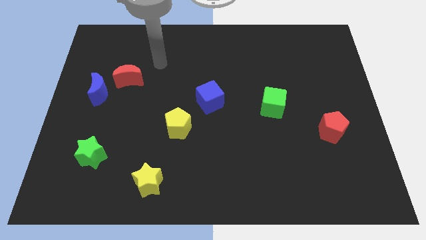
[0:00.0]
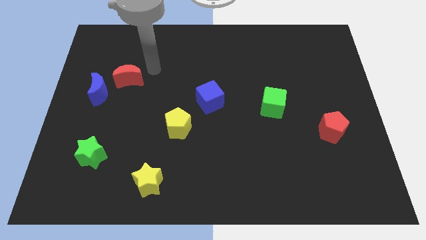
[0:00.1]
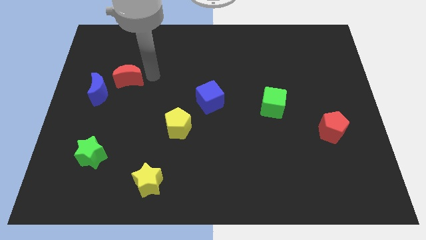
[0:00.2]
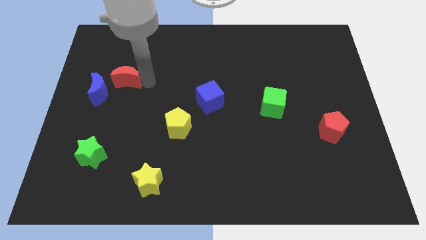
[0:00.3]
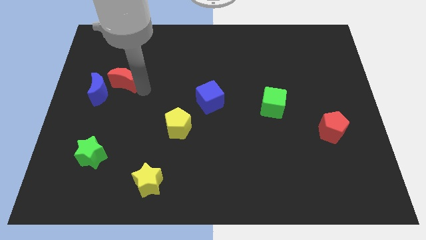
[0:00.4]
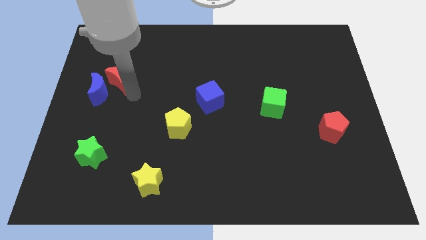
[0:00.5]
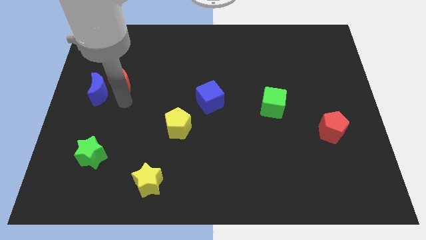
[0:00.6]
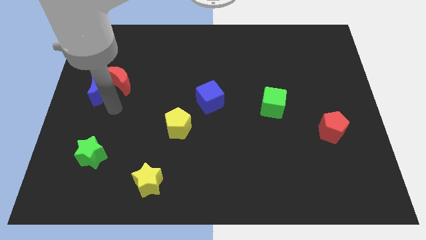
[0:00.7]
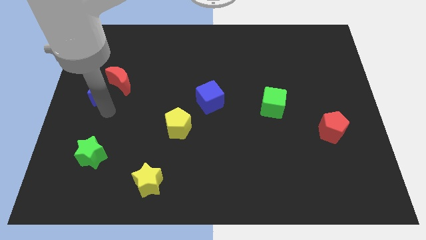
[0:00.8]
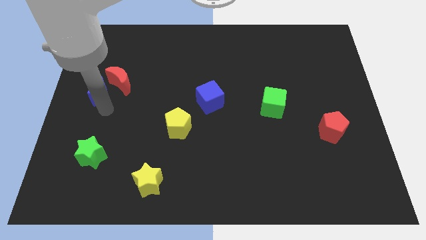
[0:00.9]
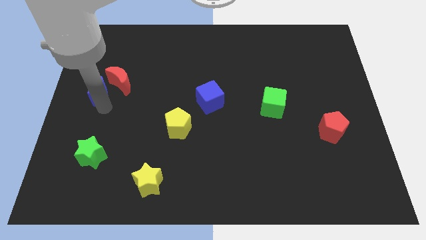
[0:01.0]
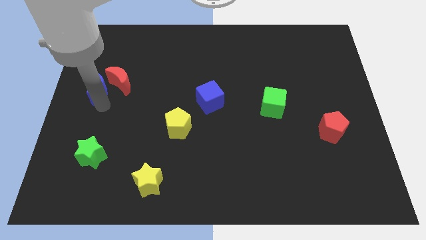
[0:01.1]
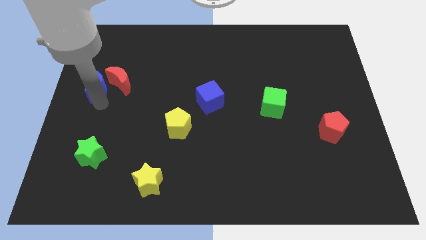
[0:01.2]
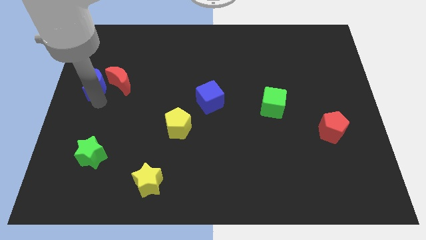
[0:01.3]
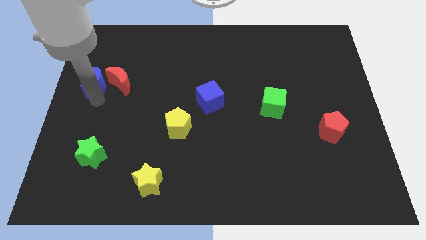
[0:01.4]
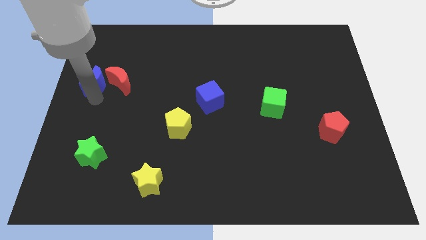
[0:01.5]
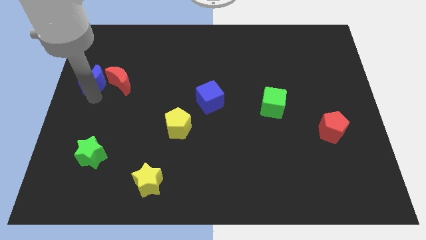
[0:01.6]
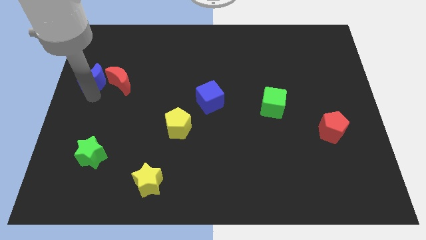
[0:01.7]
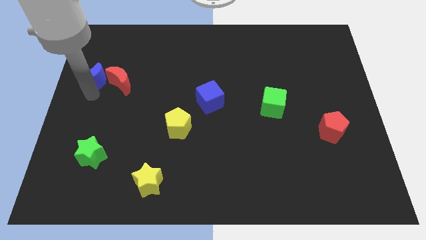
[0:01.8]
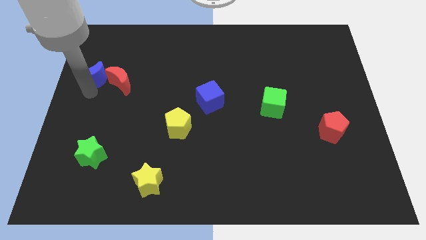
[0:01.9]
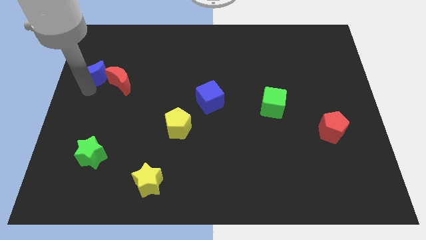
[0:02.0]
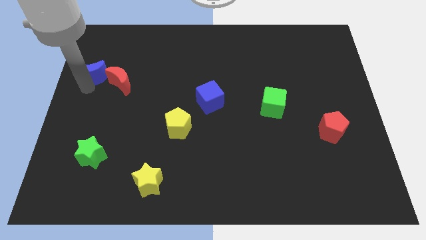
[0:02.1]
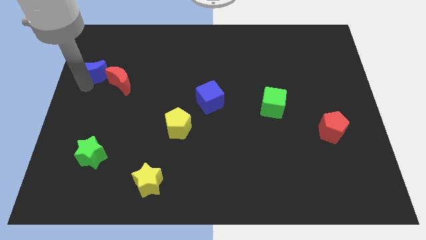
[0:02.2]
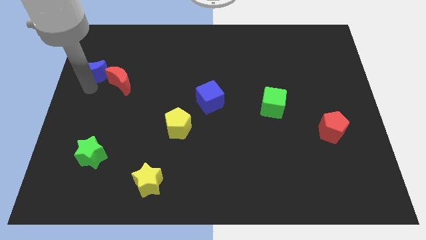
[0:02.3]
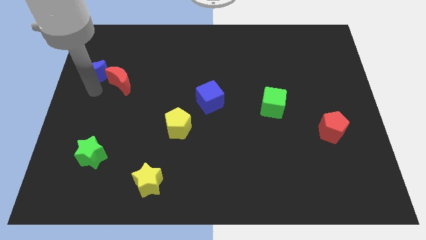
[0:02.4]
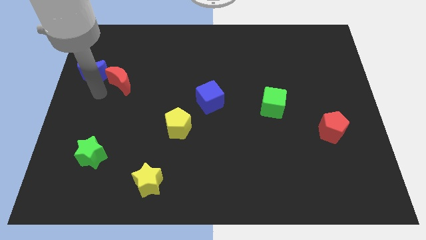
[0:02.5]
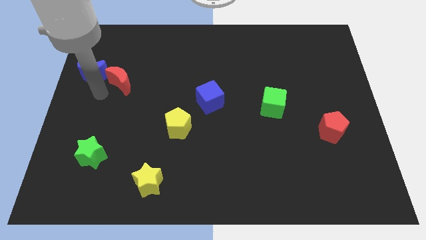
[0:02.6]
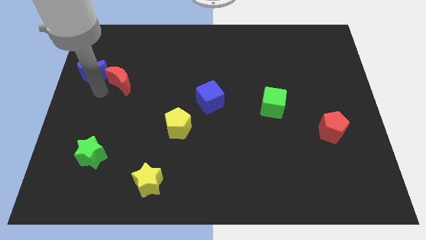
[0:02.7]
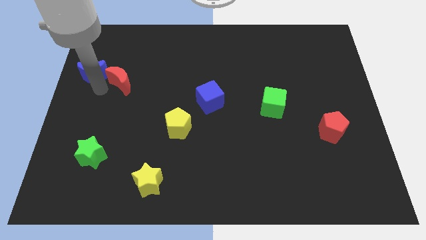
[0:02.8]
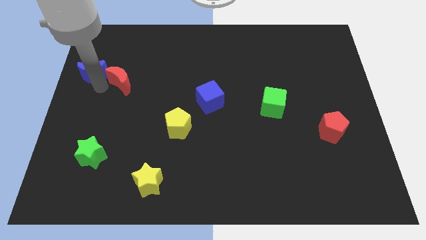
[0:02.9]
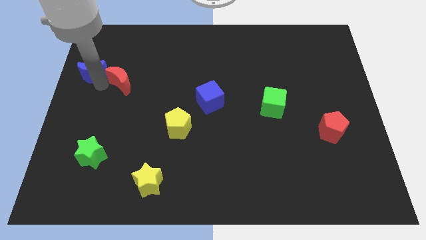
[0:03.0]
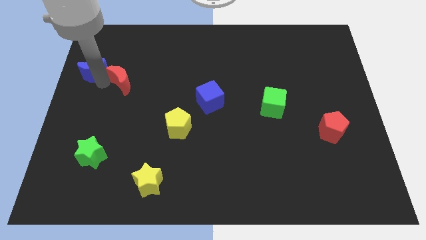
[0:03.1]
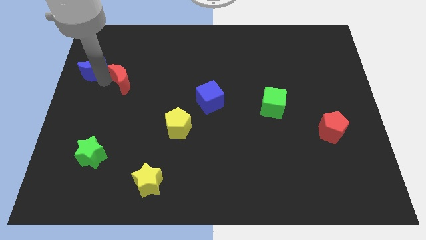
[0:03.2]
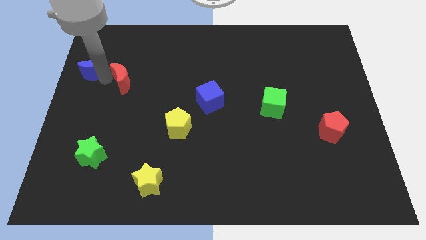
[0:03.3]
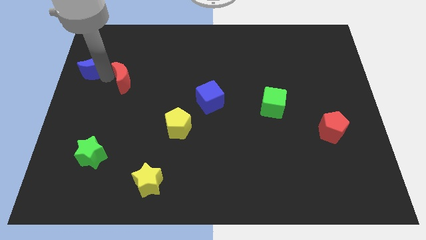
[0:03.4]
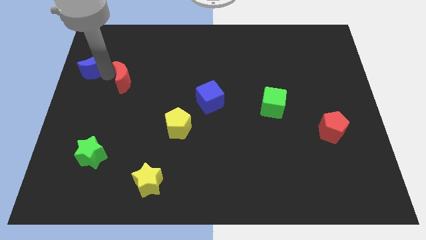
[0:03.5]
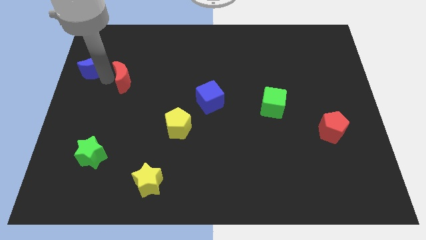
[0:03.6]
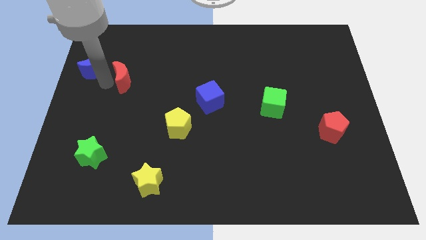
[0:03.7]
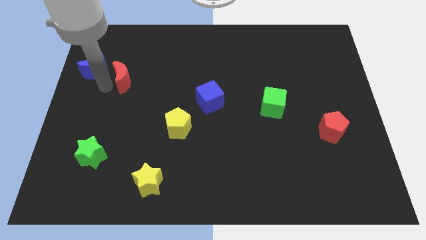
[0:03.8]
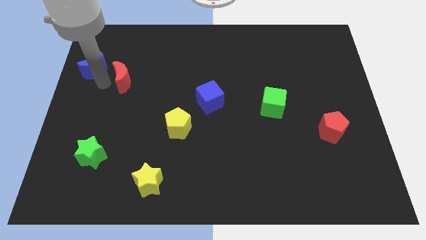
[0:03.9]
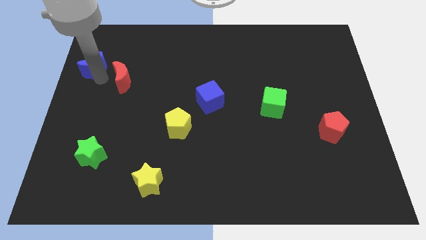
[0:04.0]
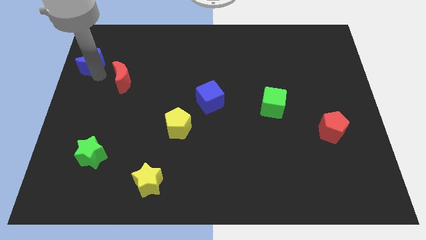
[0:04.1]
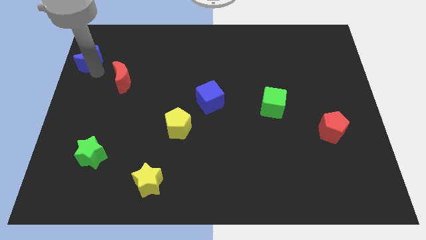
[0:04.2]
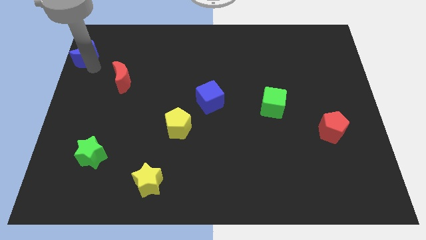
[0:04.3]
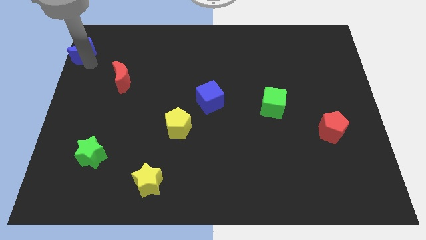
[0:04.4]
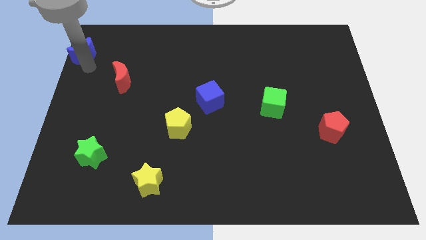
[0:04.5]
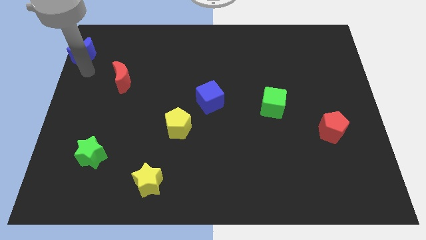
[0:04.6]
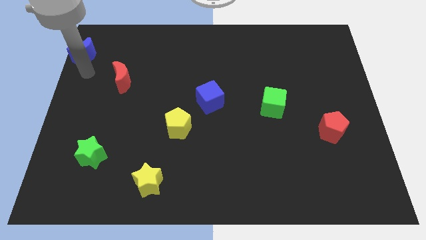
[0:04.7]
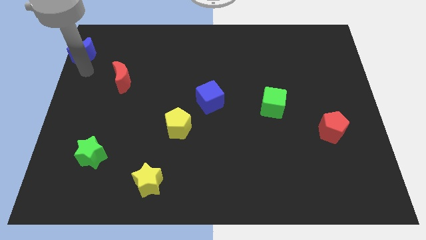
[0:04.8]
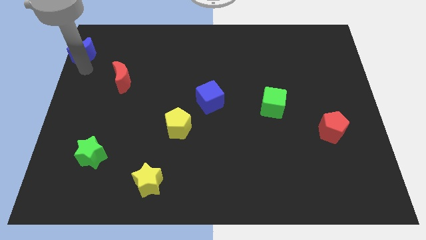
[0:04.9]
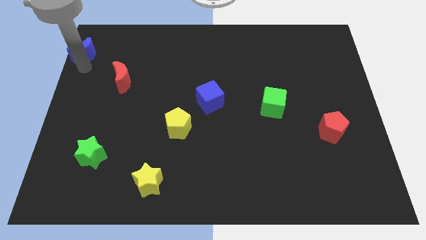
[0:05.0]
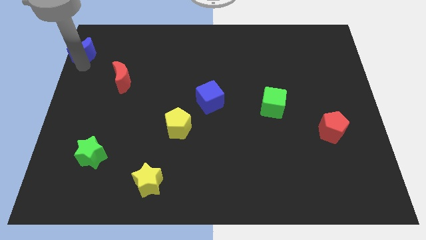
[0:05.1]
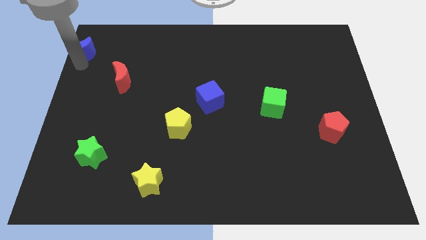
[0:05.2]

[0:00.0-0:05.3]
move the blue moon to the top left corner

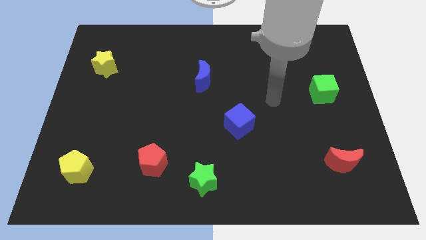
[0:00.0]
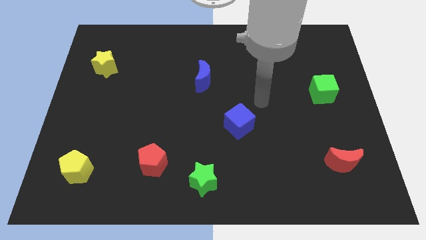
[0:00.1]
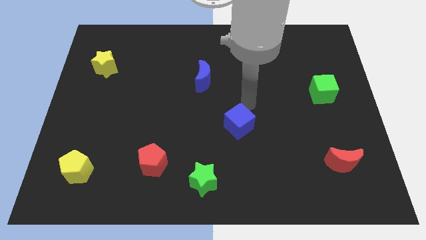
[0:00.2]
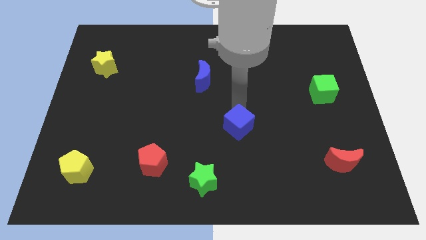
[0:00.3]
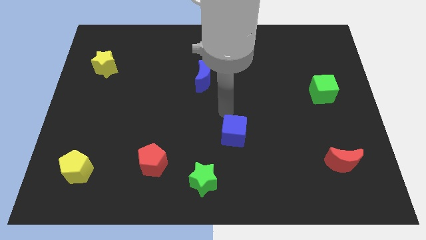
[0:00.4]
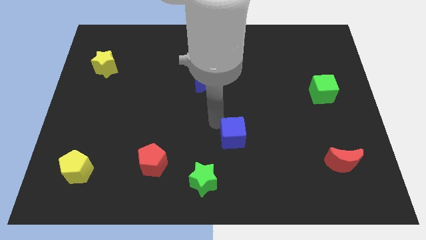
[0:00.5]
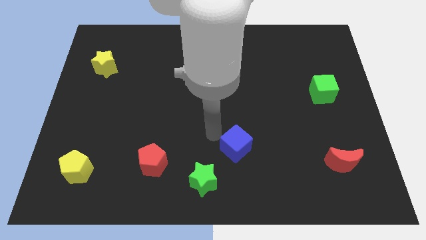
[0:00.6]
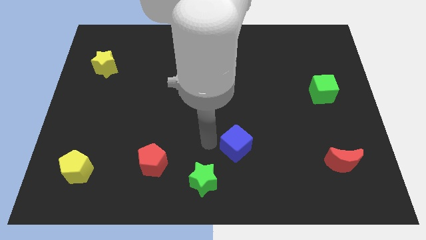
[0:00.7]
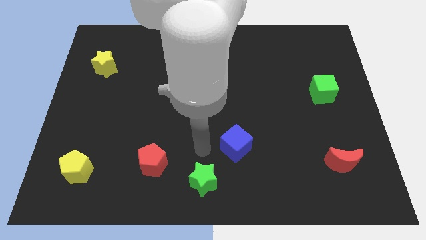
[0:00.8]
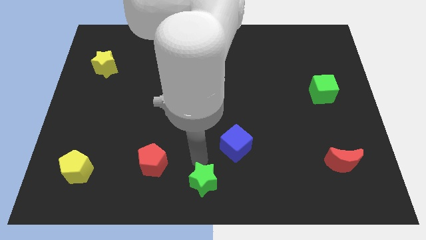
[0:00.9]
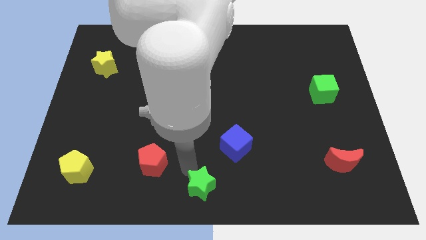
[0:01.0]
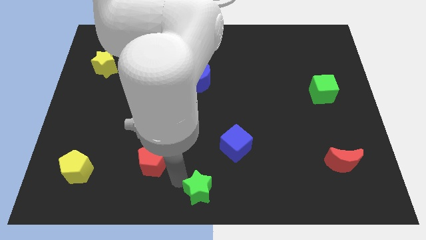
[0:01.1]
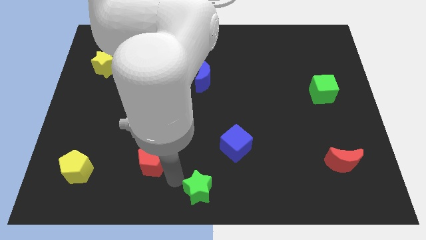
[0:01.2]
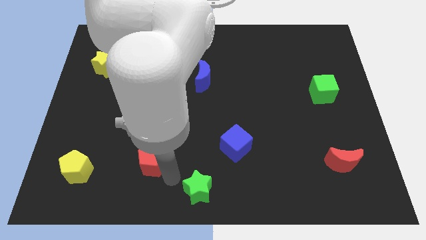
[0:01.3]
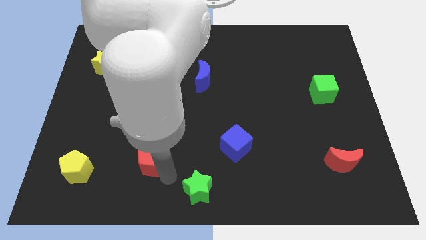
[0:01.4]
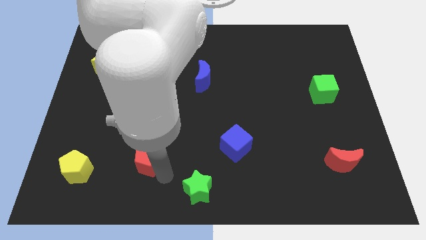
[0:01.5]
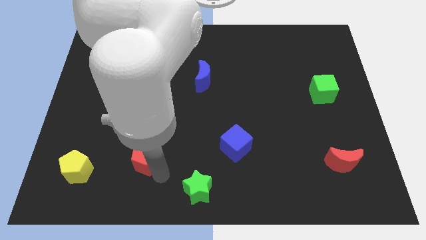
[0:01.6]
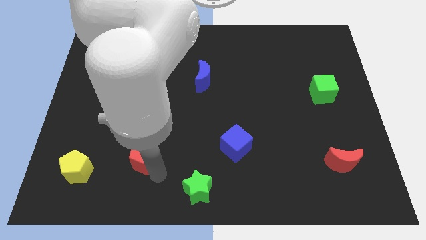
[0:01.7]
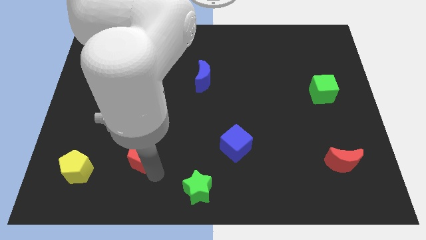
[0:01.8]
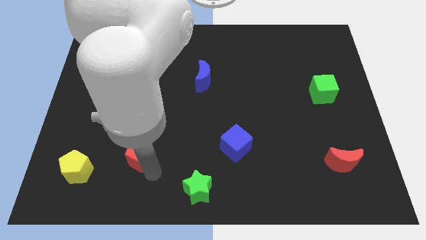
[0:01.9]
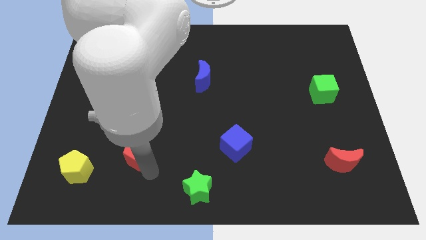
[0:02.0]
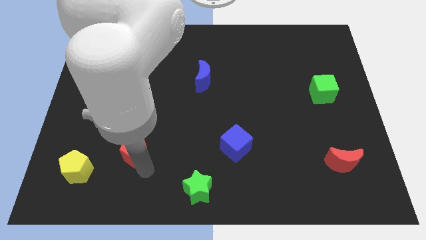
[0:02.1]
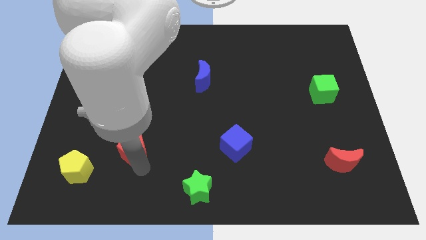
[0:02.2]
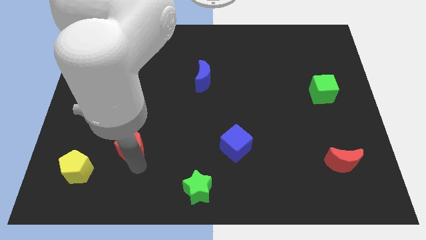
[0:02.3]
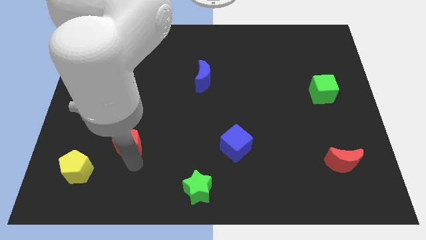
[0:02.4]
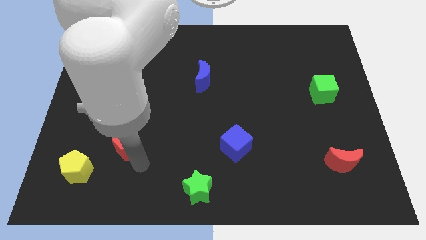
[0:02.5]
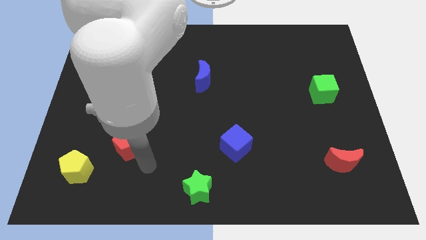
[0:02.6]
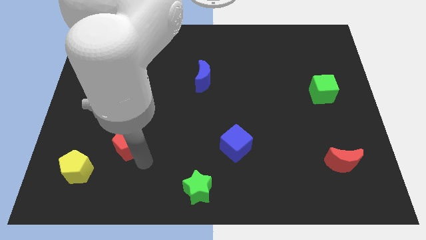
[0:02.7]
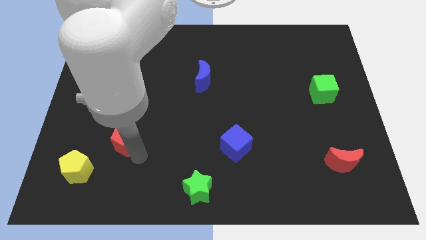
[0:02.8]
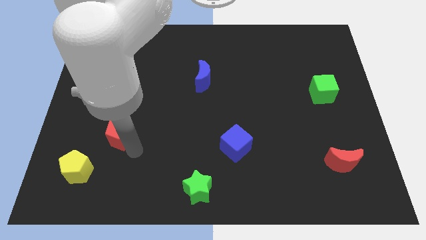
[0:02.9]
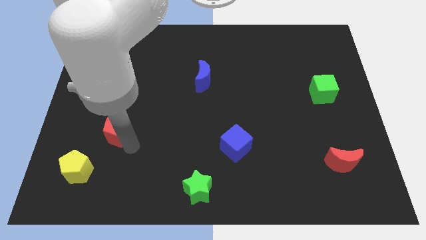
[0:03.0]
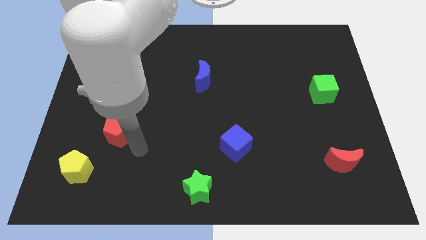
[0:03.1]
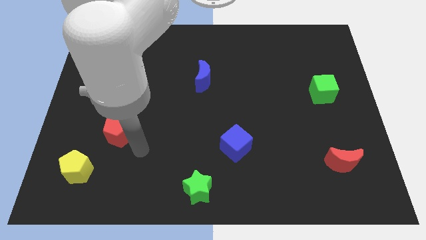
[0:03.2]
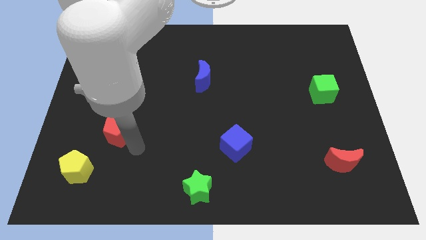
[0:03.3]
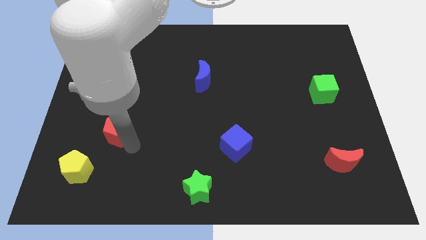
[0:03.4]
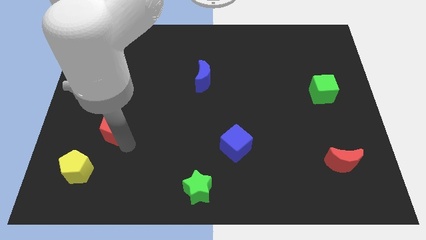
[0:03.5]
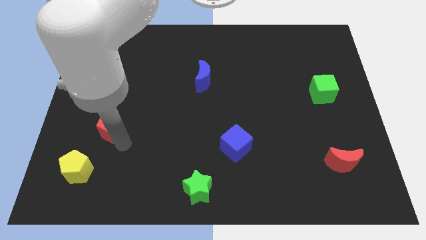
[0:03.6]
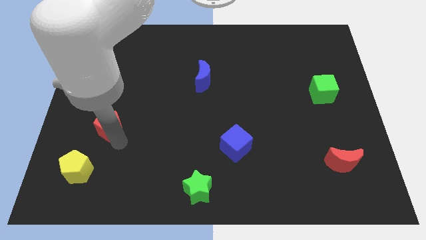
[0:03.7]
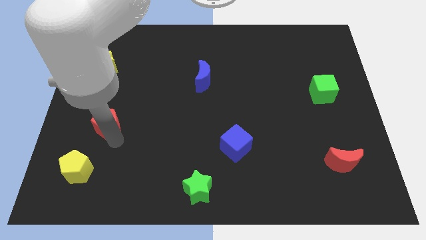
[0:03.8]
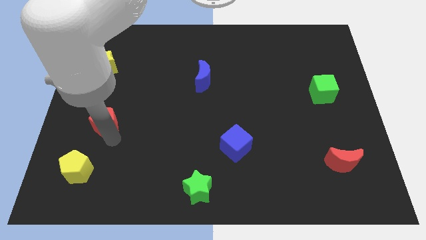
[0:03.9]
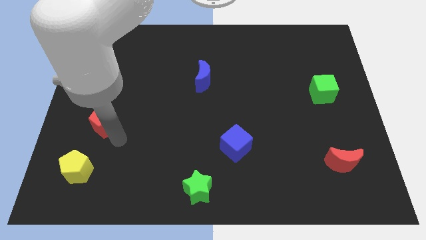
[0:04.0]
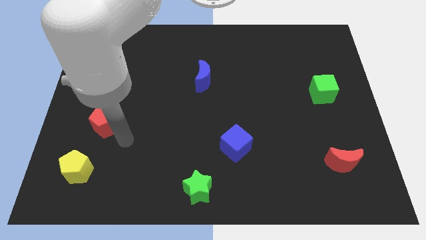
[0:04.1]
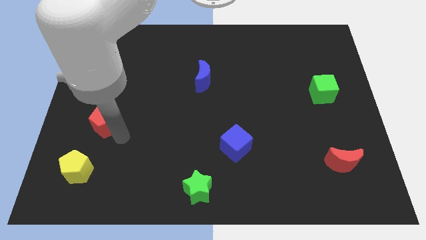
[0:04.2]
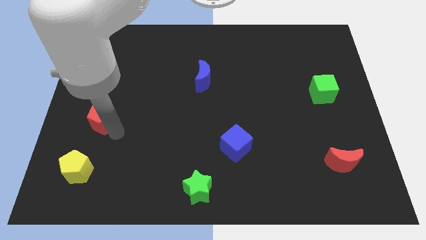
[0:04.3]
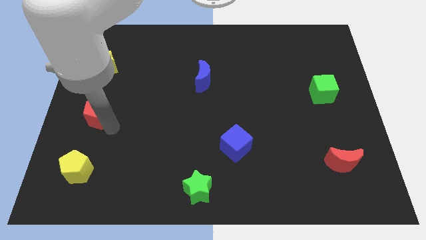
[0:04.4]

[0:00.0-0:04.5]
put the red pentagon to the left side of the board
